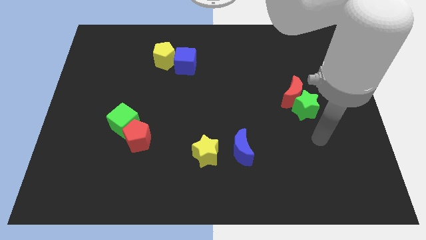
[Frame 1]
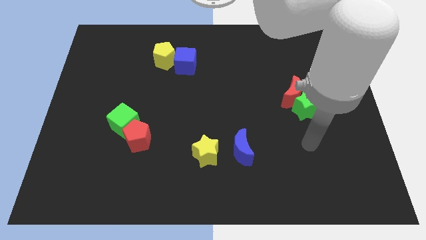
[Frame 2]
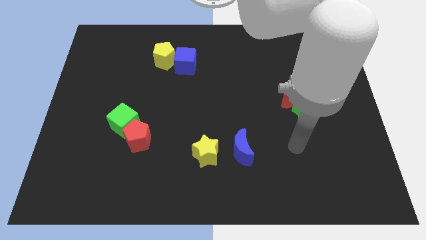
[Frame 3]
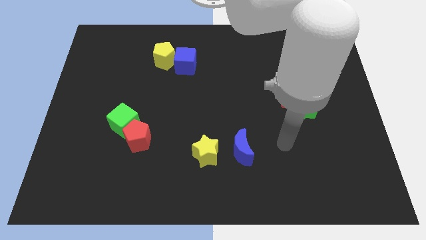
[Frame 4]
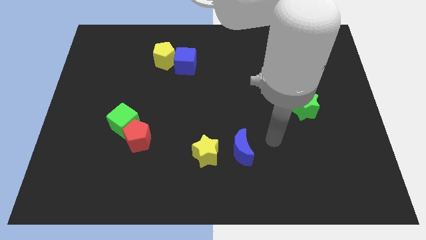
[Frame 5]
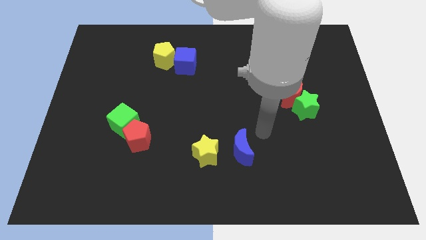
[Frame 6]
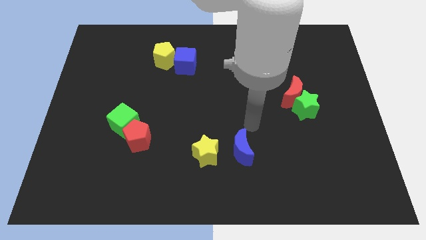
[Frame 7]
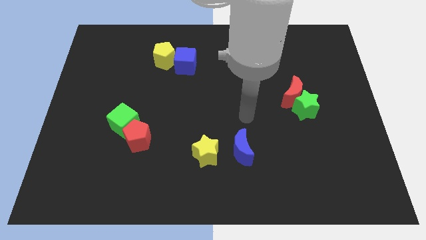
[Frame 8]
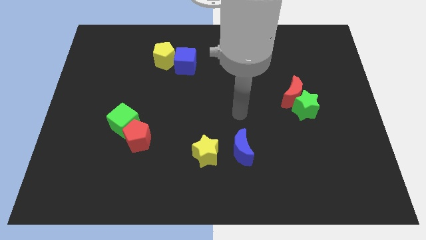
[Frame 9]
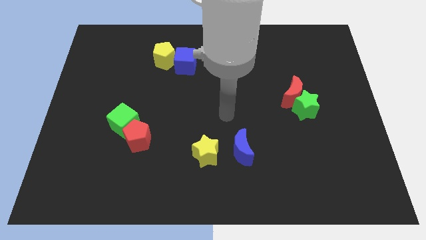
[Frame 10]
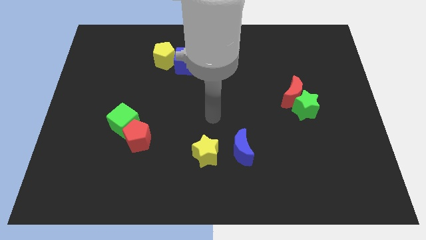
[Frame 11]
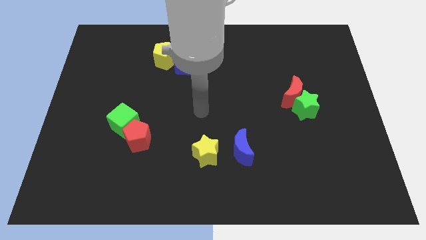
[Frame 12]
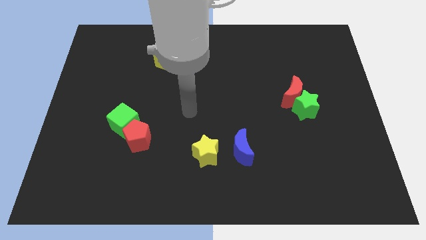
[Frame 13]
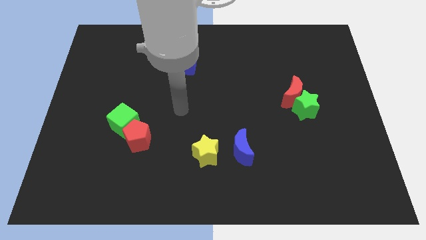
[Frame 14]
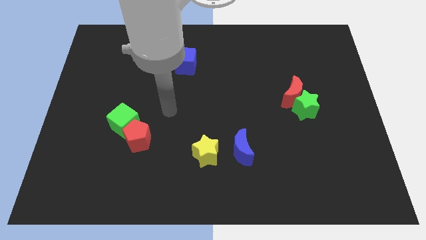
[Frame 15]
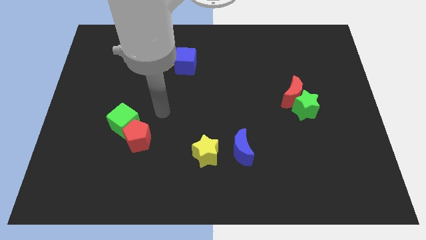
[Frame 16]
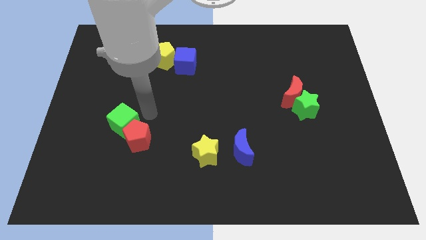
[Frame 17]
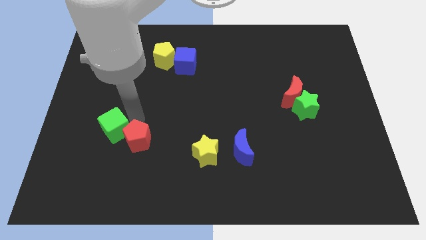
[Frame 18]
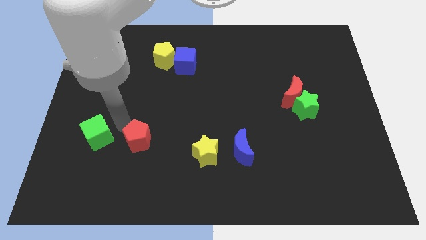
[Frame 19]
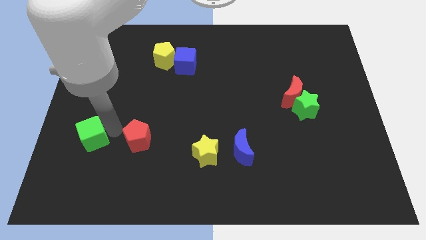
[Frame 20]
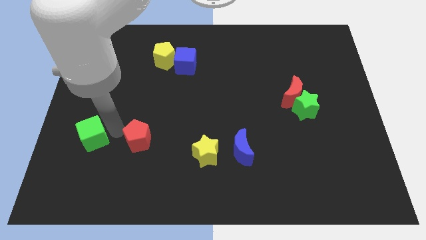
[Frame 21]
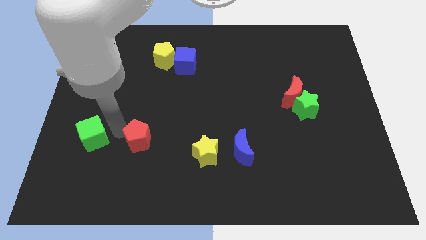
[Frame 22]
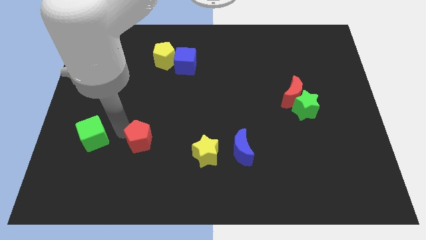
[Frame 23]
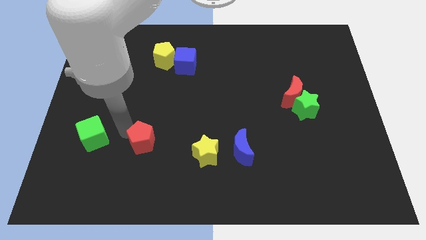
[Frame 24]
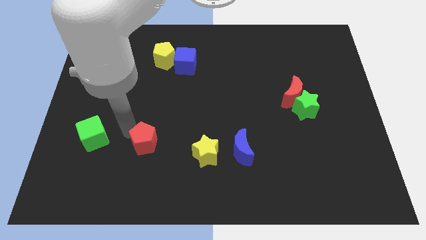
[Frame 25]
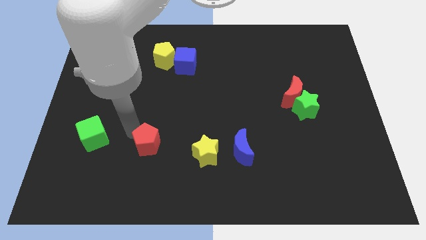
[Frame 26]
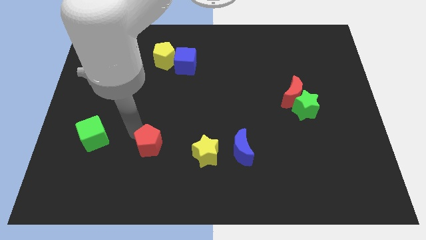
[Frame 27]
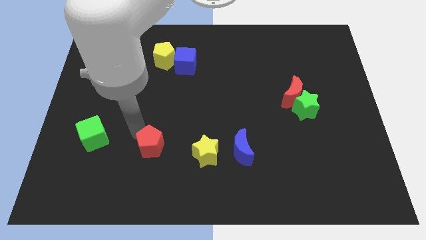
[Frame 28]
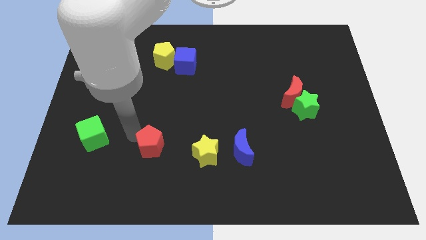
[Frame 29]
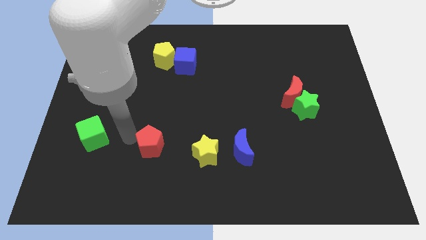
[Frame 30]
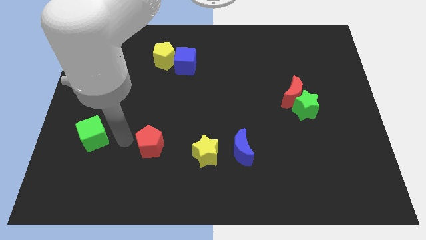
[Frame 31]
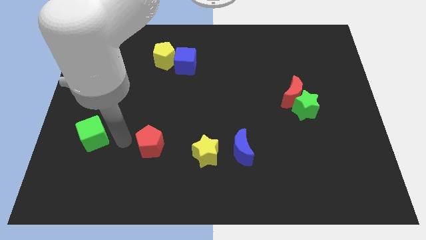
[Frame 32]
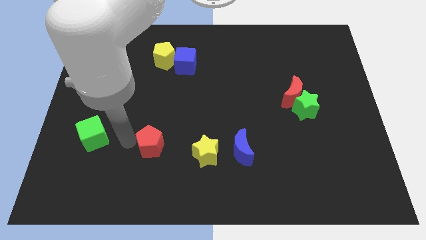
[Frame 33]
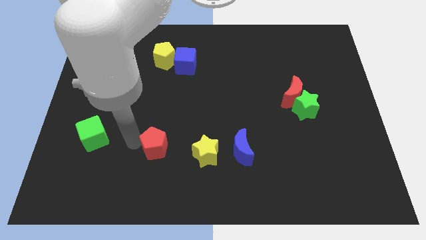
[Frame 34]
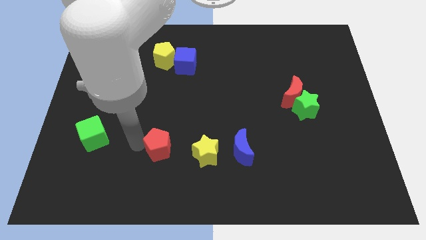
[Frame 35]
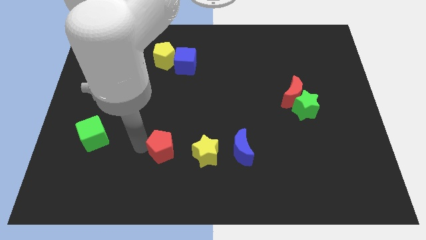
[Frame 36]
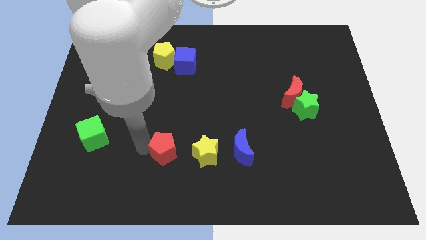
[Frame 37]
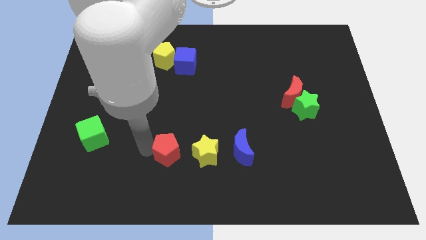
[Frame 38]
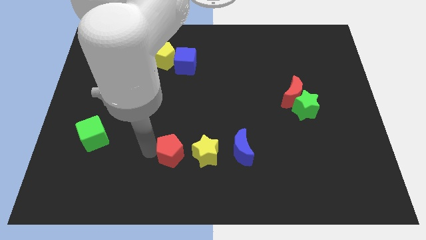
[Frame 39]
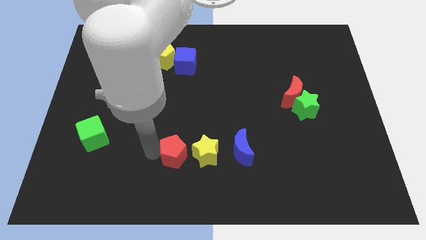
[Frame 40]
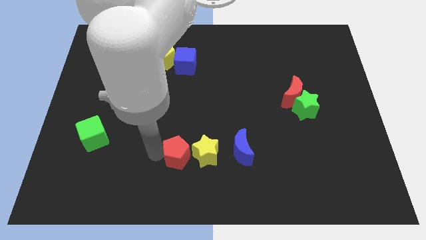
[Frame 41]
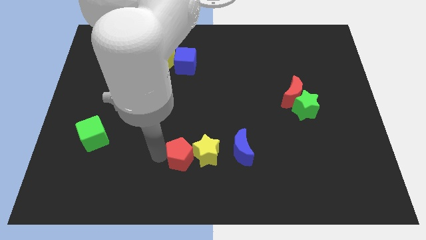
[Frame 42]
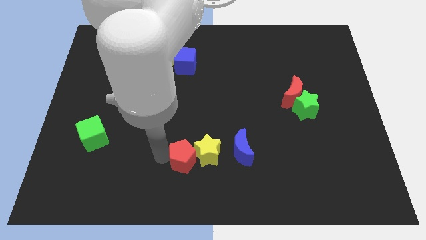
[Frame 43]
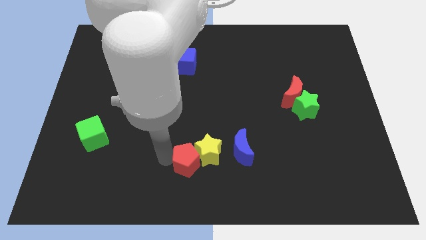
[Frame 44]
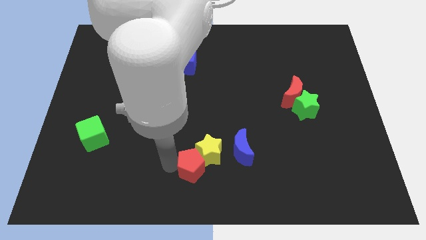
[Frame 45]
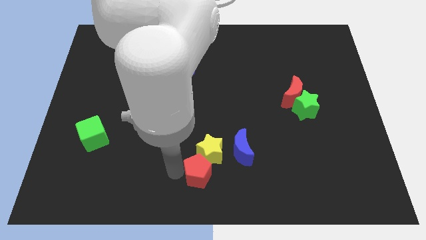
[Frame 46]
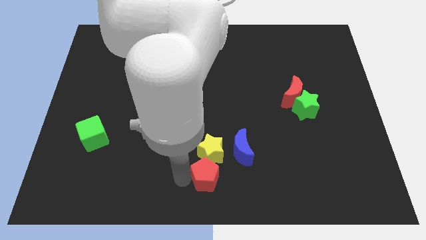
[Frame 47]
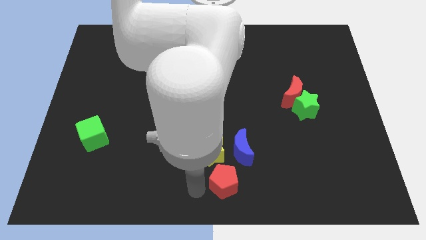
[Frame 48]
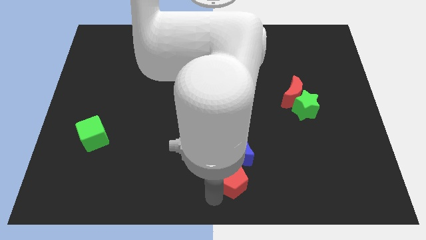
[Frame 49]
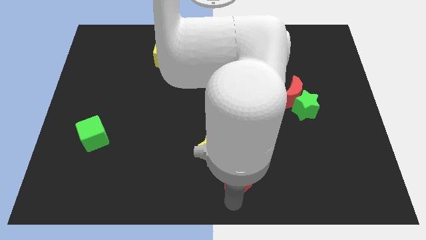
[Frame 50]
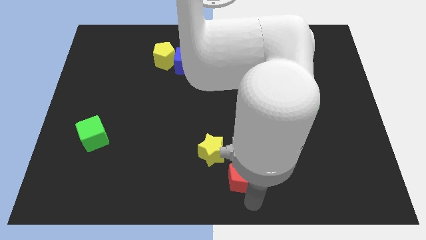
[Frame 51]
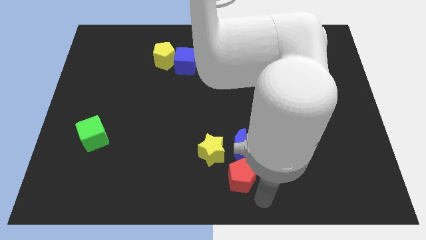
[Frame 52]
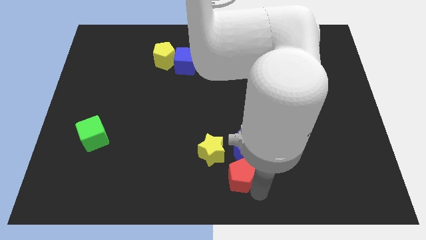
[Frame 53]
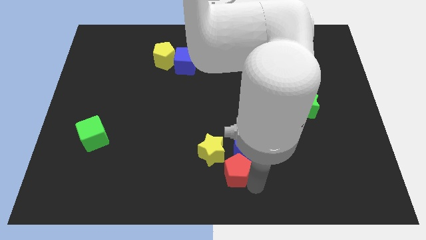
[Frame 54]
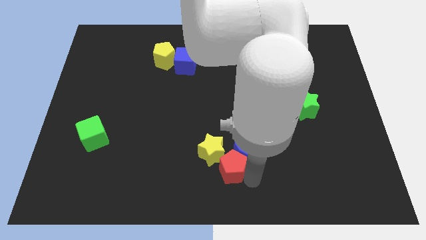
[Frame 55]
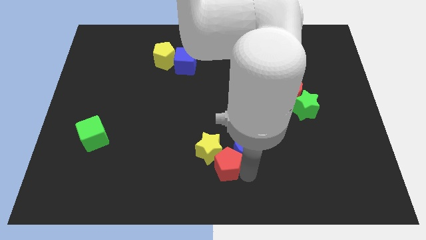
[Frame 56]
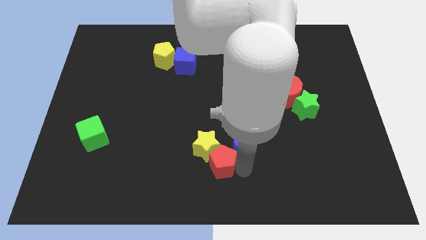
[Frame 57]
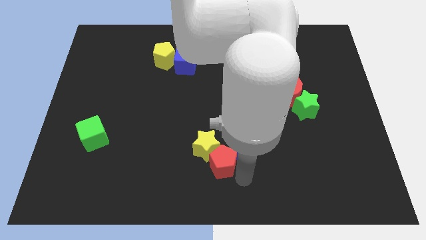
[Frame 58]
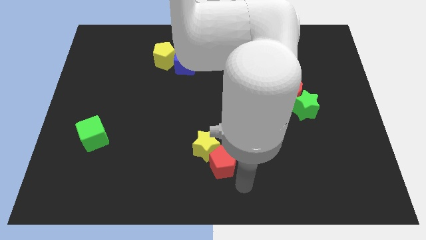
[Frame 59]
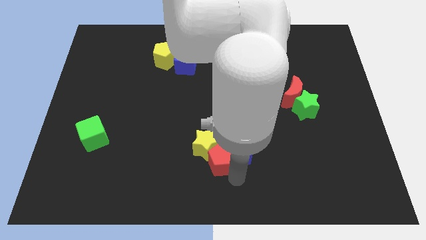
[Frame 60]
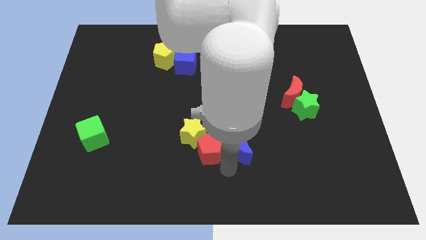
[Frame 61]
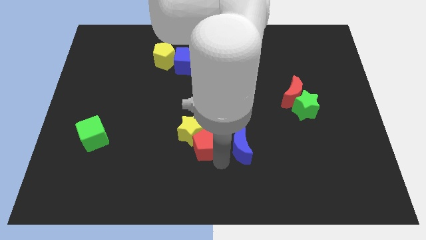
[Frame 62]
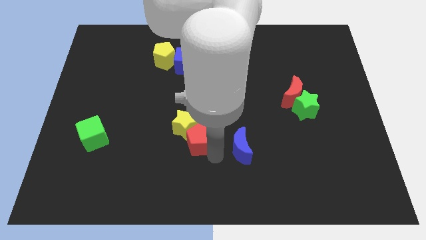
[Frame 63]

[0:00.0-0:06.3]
slide the red pentagon to the middle of the board

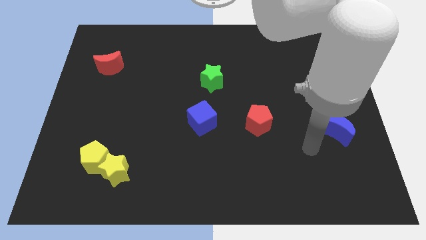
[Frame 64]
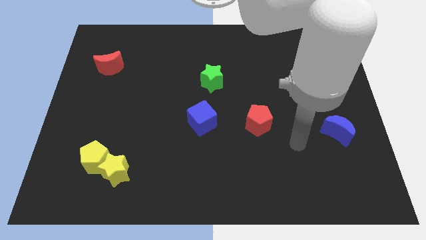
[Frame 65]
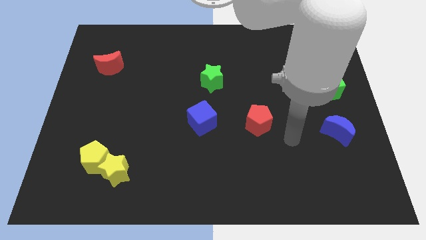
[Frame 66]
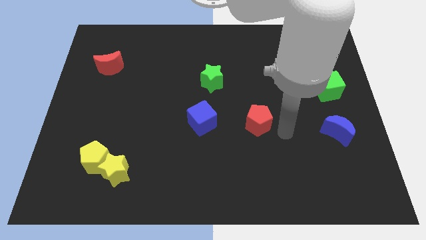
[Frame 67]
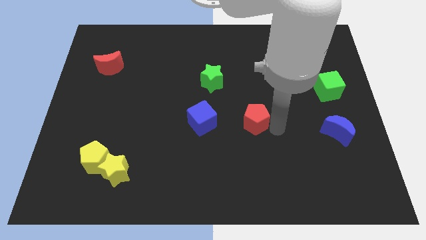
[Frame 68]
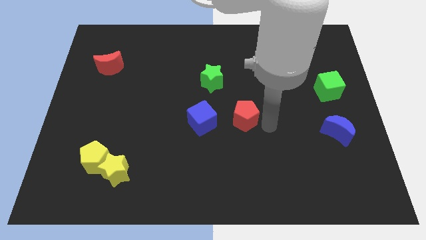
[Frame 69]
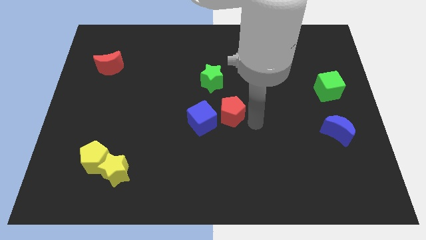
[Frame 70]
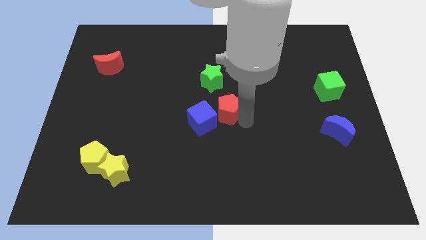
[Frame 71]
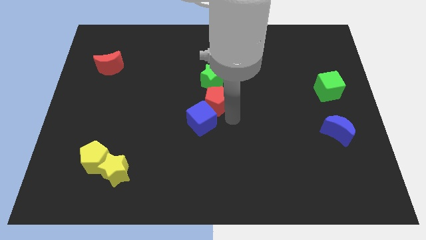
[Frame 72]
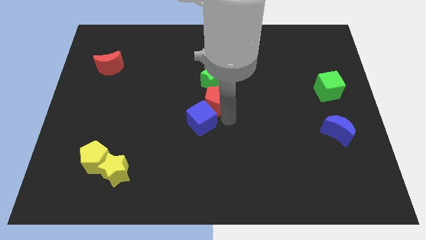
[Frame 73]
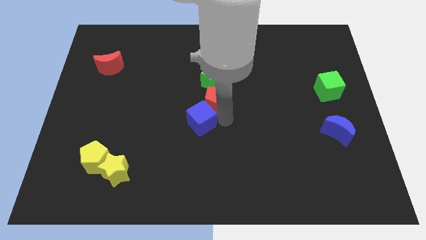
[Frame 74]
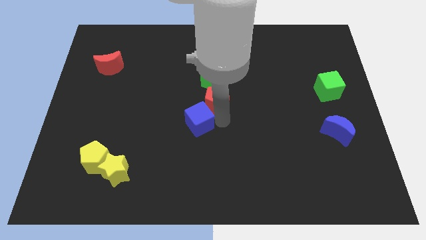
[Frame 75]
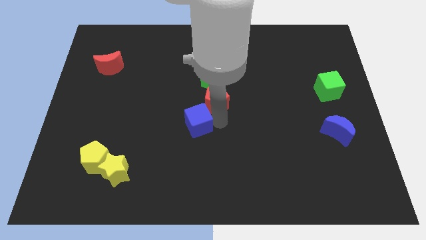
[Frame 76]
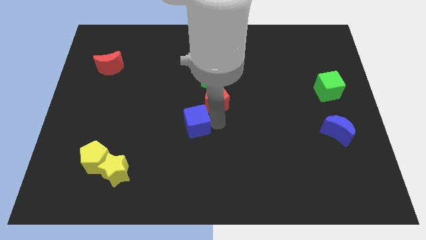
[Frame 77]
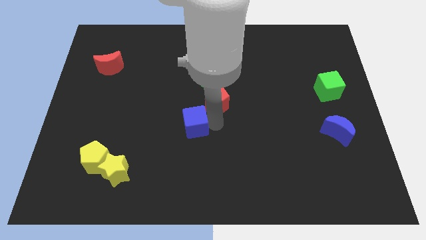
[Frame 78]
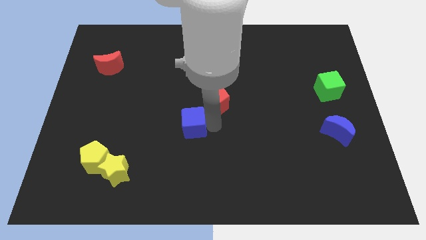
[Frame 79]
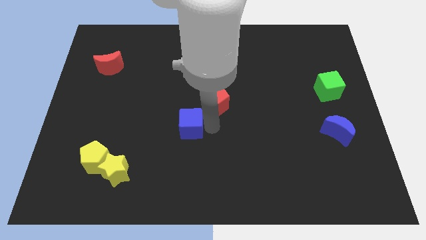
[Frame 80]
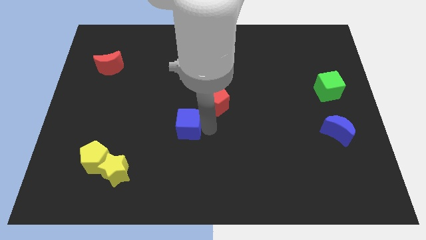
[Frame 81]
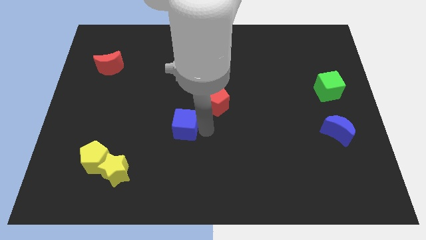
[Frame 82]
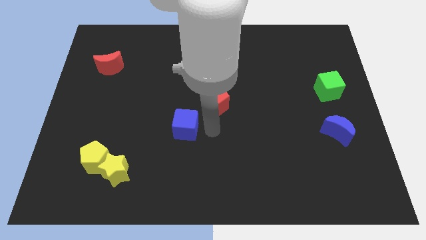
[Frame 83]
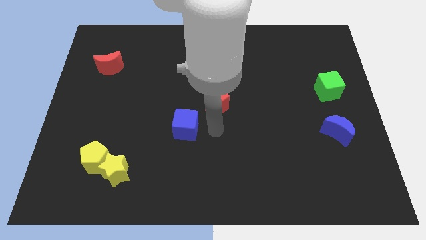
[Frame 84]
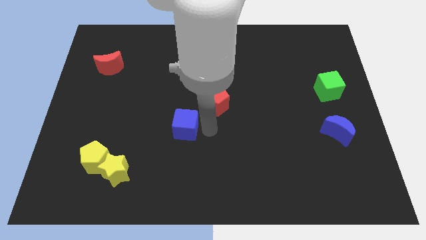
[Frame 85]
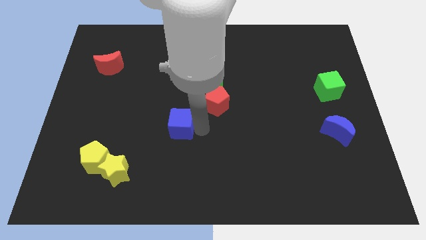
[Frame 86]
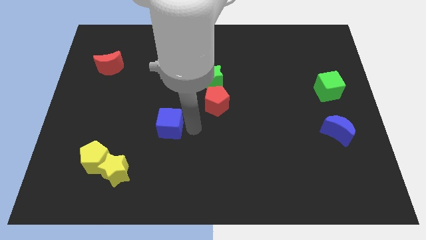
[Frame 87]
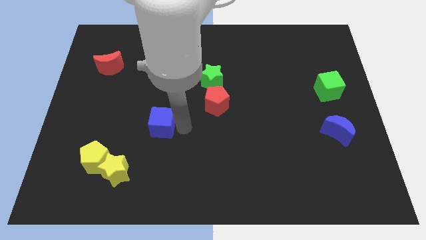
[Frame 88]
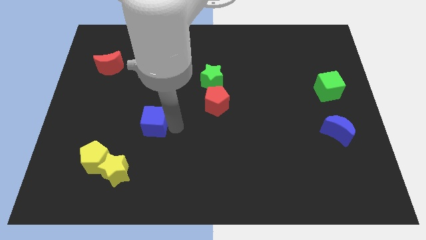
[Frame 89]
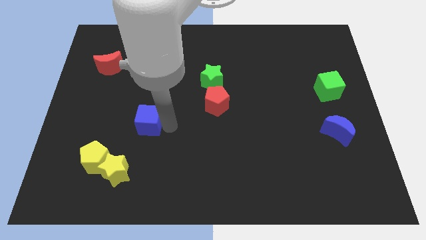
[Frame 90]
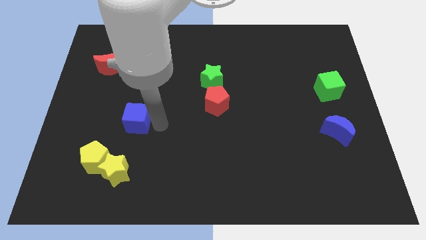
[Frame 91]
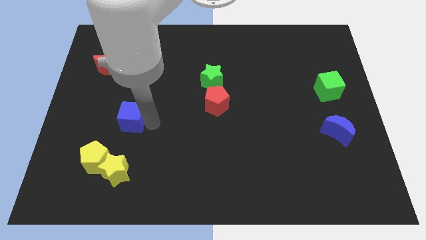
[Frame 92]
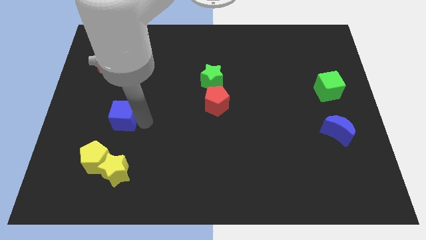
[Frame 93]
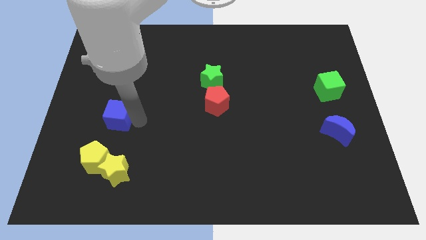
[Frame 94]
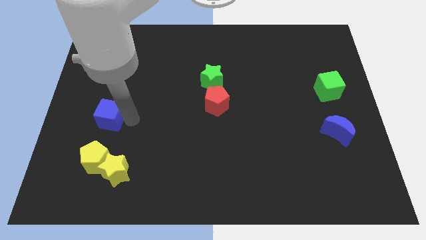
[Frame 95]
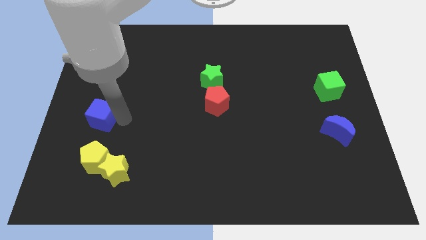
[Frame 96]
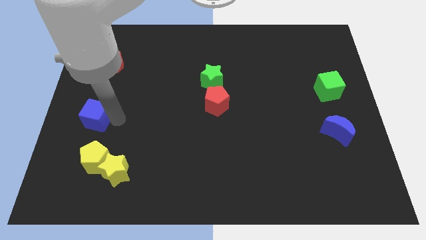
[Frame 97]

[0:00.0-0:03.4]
push the blue cube to the center left
